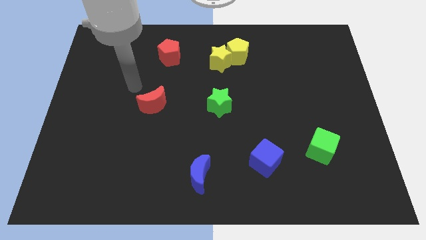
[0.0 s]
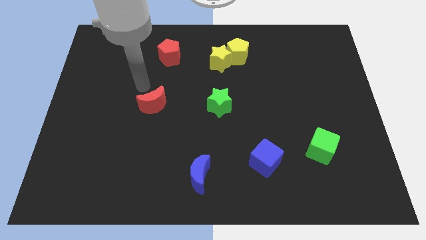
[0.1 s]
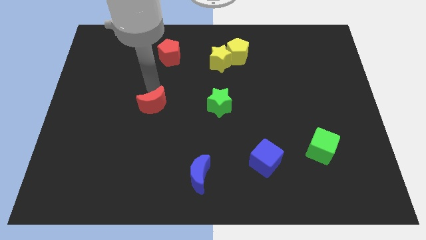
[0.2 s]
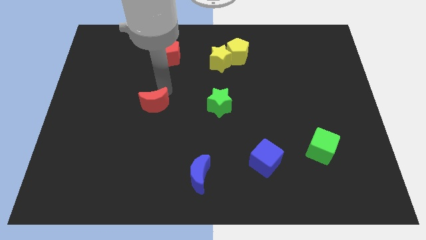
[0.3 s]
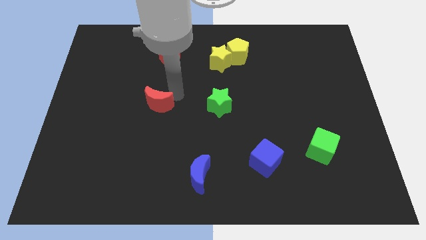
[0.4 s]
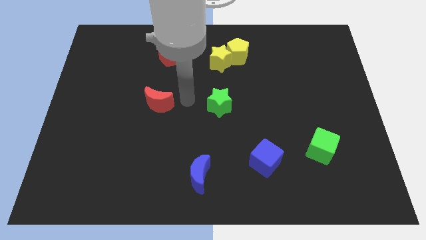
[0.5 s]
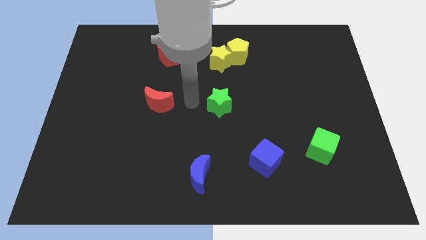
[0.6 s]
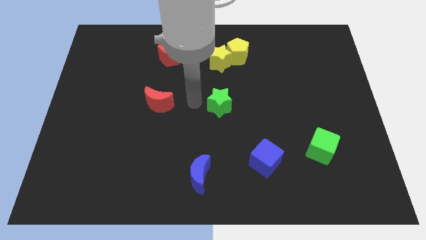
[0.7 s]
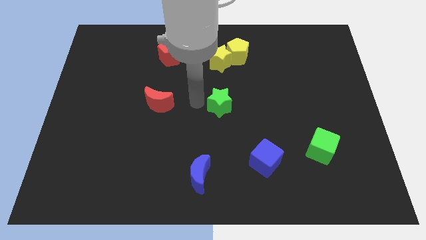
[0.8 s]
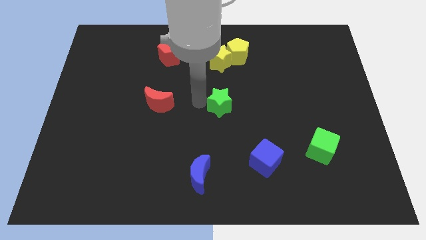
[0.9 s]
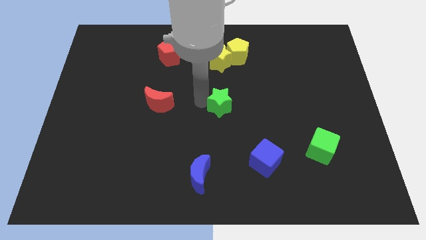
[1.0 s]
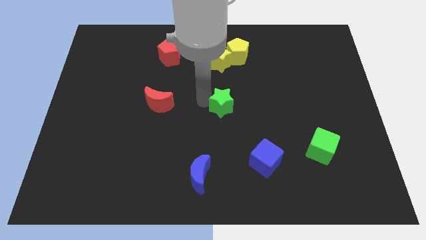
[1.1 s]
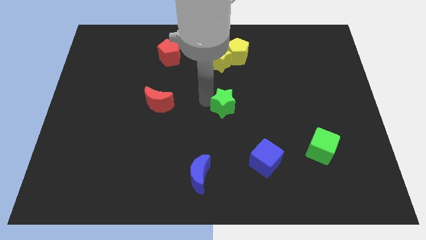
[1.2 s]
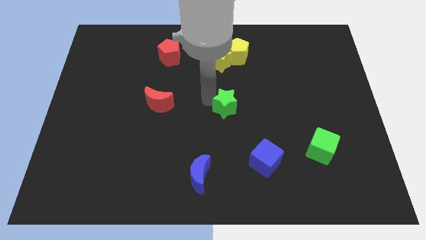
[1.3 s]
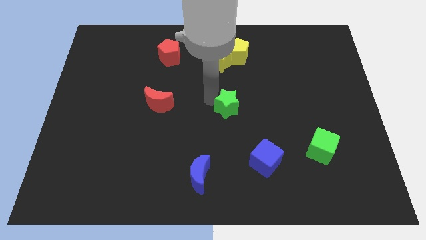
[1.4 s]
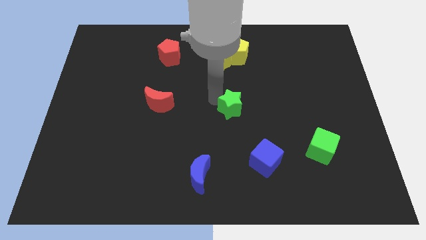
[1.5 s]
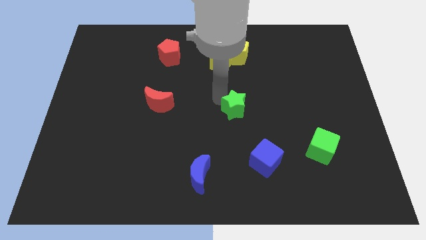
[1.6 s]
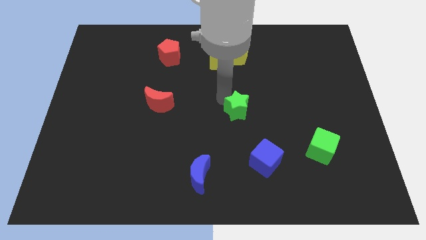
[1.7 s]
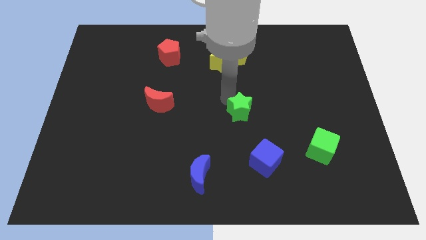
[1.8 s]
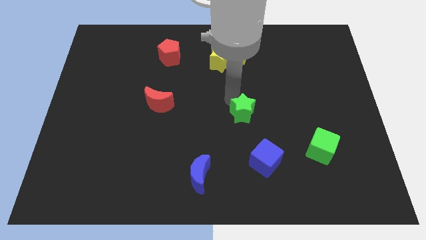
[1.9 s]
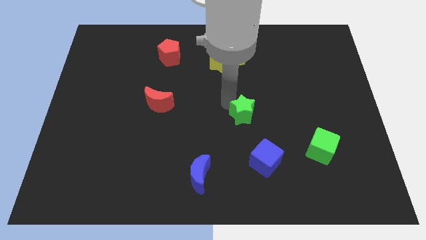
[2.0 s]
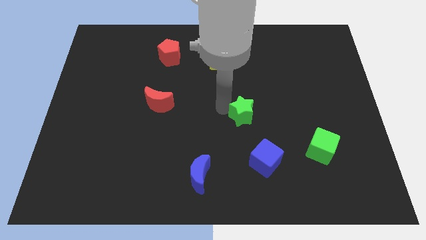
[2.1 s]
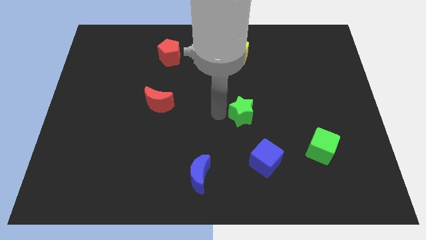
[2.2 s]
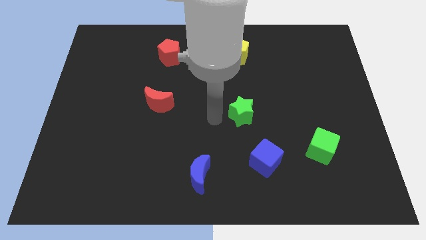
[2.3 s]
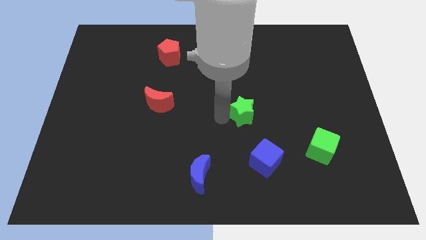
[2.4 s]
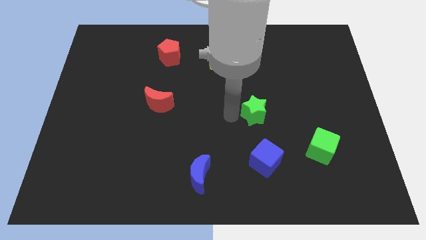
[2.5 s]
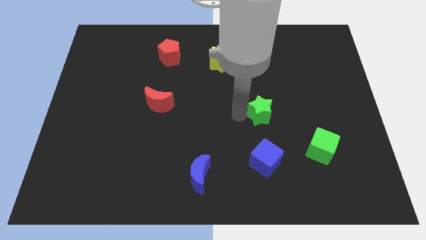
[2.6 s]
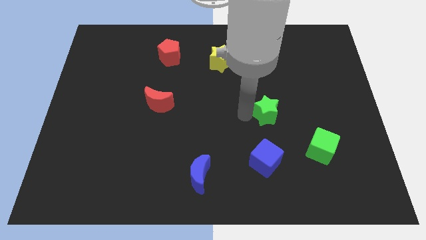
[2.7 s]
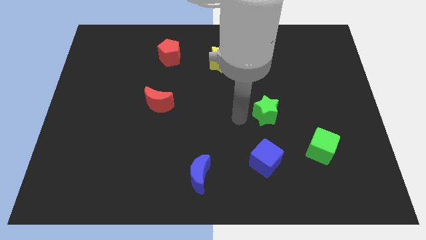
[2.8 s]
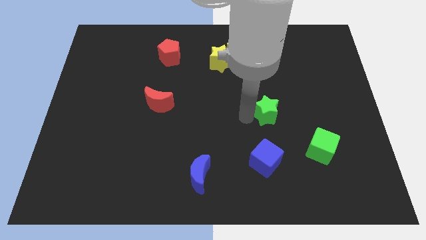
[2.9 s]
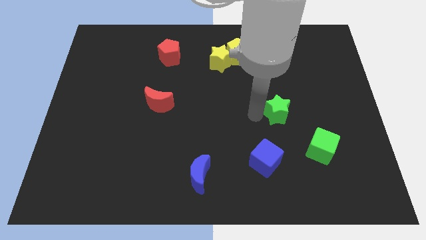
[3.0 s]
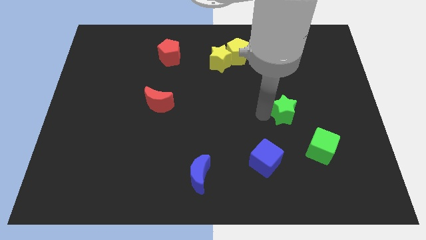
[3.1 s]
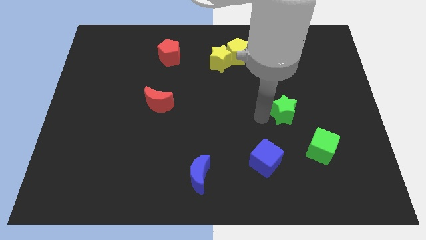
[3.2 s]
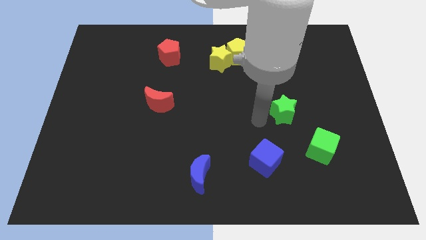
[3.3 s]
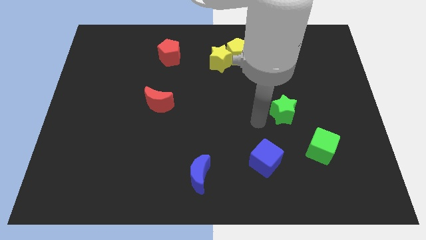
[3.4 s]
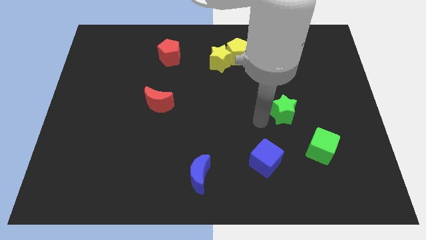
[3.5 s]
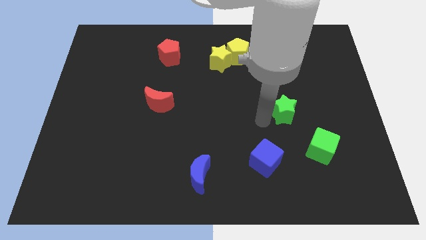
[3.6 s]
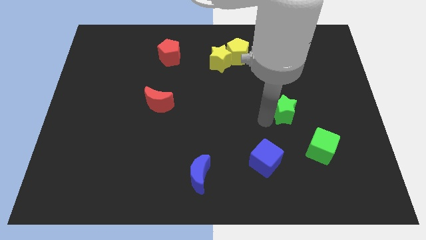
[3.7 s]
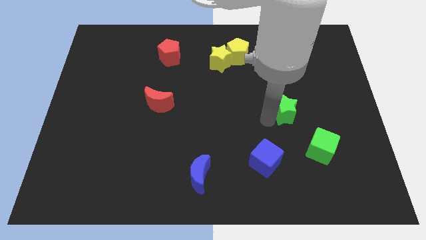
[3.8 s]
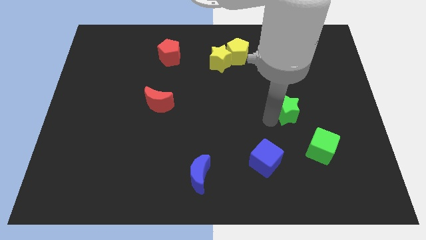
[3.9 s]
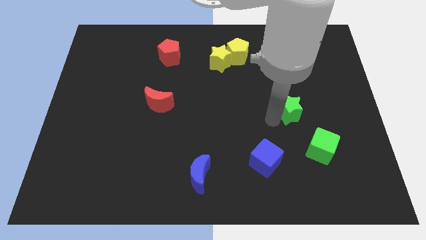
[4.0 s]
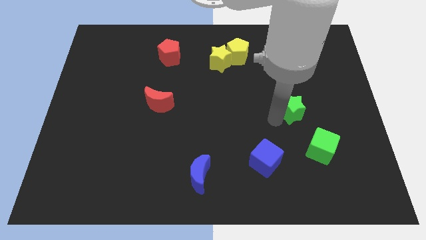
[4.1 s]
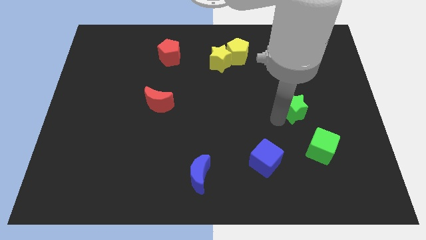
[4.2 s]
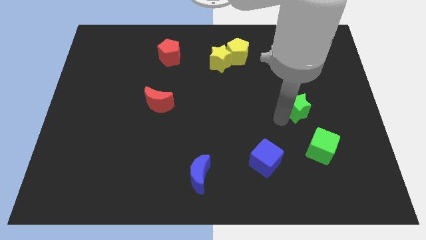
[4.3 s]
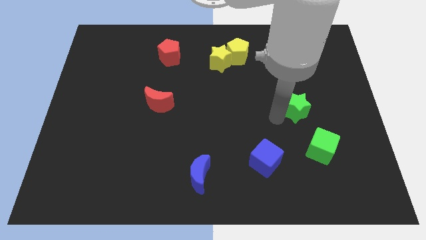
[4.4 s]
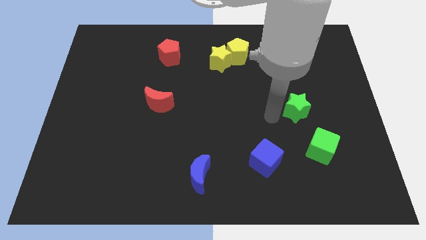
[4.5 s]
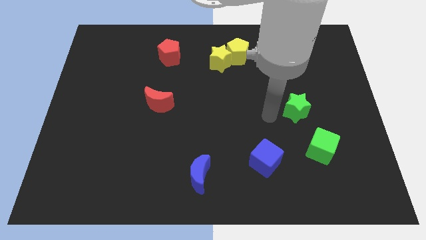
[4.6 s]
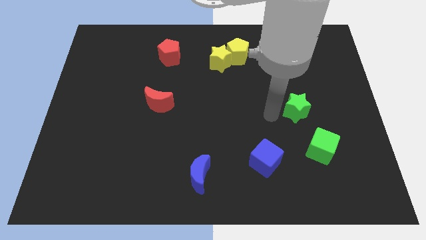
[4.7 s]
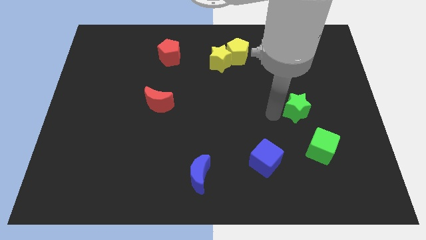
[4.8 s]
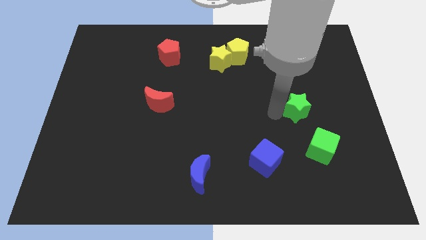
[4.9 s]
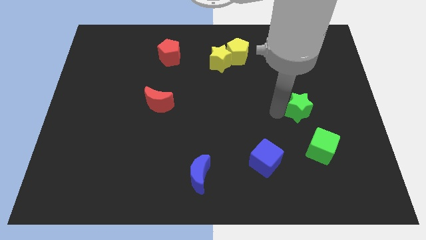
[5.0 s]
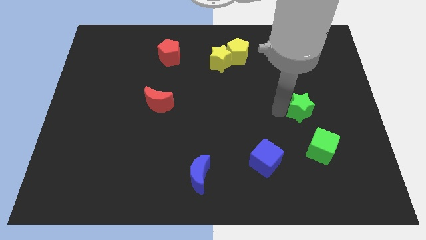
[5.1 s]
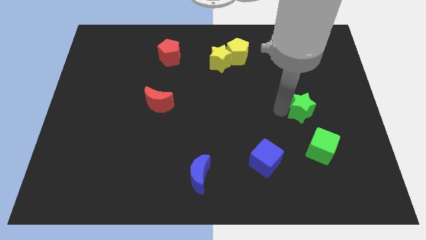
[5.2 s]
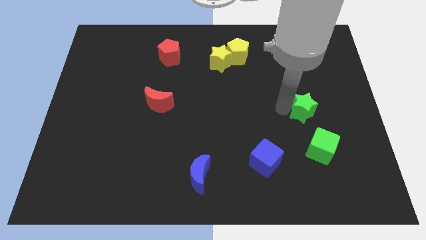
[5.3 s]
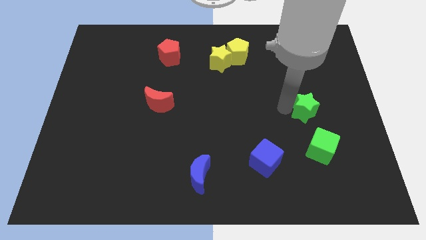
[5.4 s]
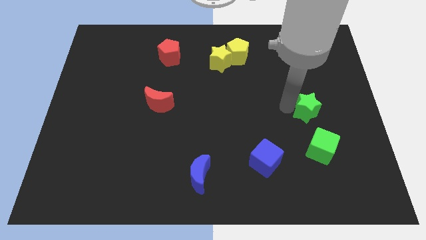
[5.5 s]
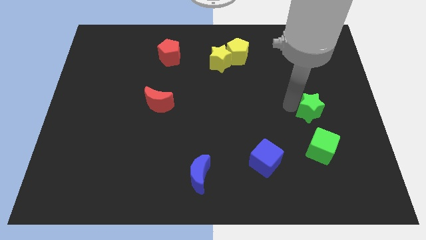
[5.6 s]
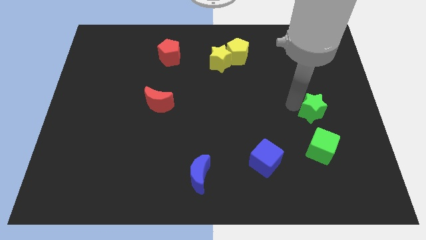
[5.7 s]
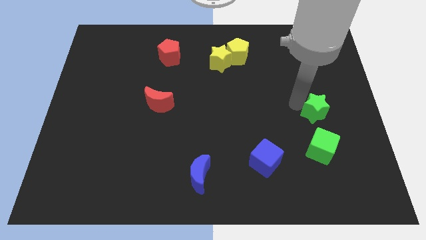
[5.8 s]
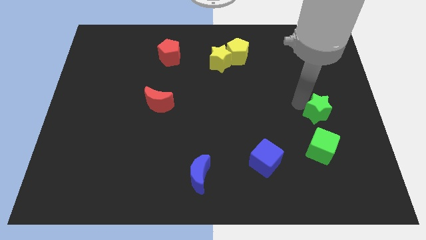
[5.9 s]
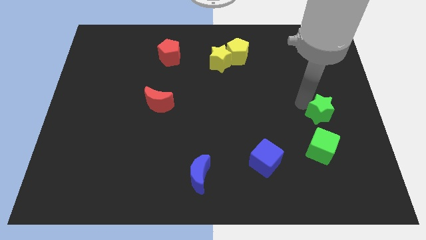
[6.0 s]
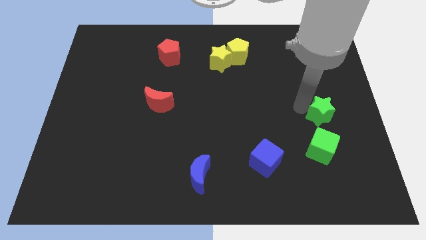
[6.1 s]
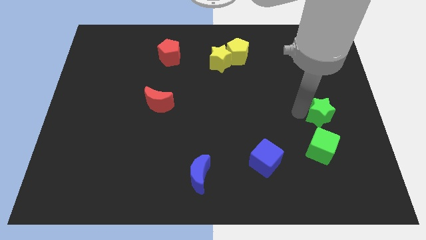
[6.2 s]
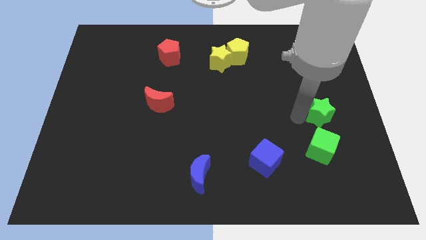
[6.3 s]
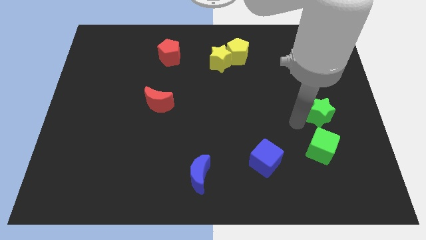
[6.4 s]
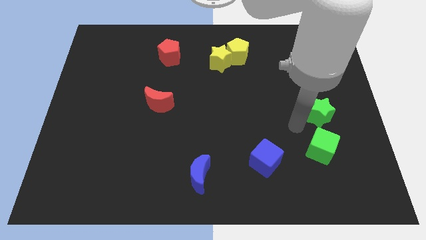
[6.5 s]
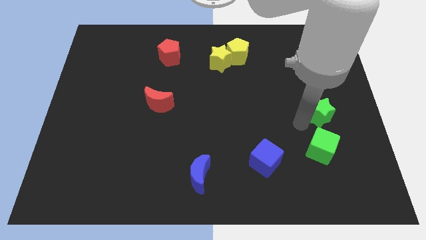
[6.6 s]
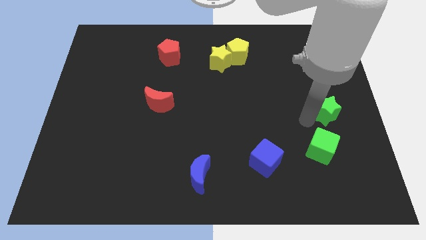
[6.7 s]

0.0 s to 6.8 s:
move the green star to the center right
